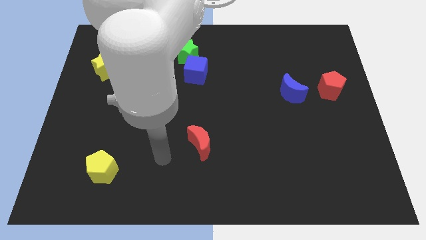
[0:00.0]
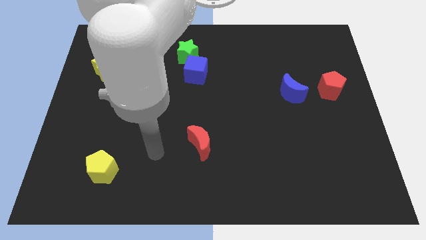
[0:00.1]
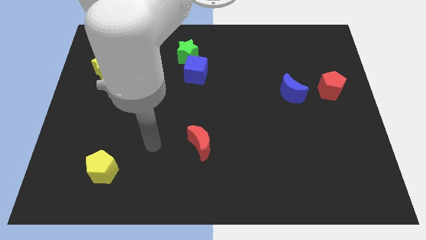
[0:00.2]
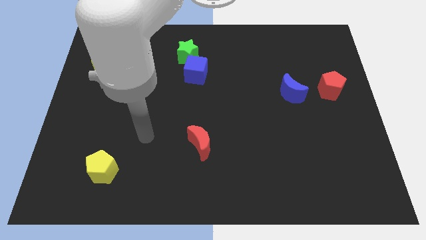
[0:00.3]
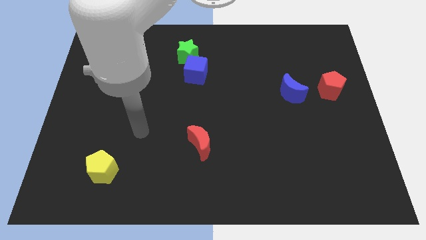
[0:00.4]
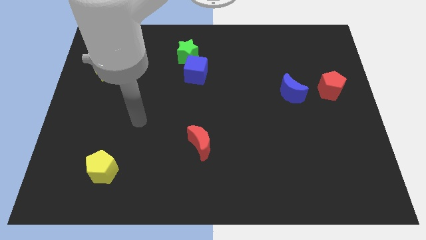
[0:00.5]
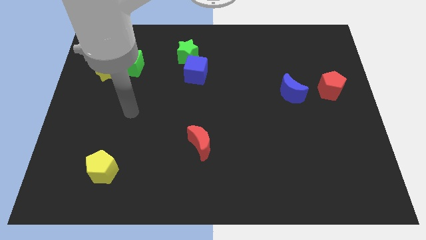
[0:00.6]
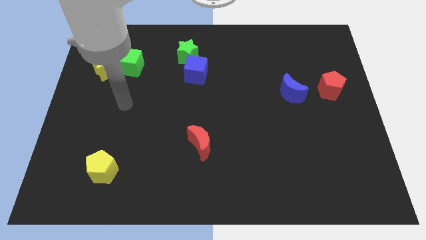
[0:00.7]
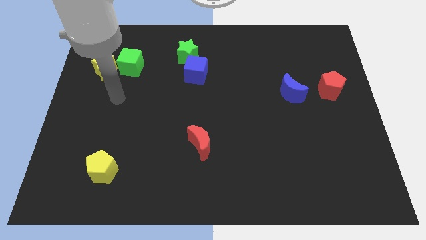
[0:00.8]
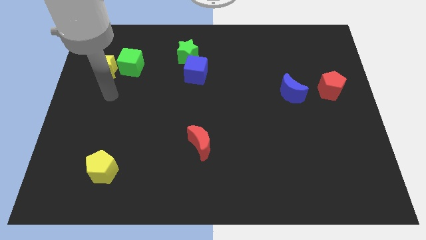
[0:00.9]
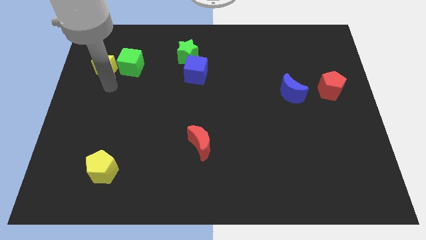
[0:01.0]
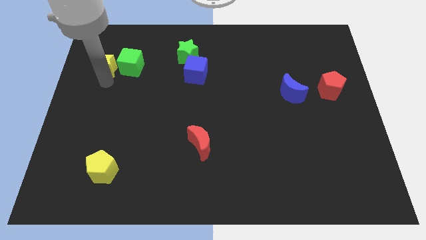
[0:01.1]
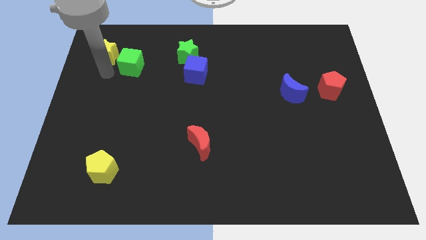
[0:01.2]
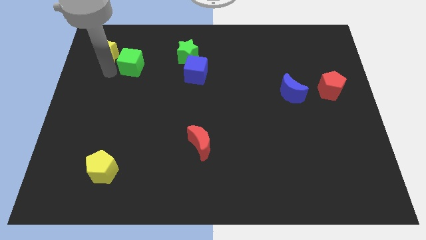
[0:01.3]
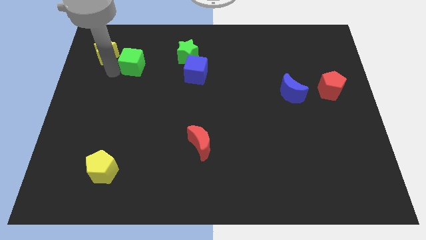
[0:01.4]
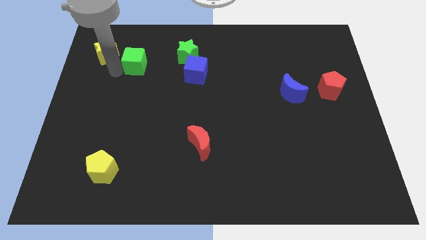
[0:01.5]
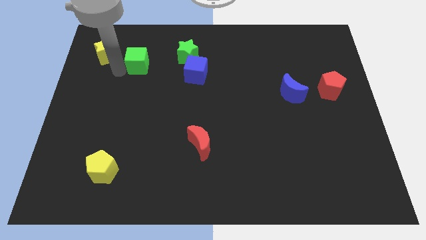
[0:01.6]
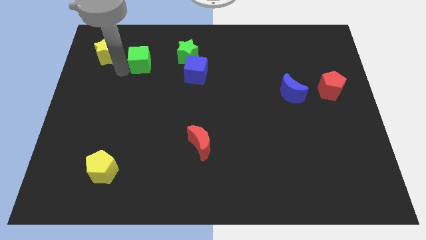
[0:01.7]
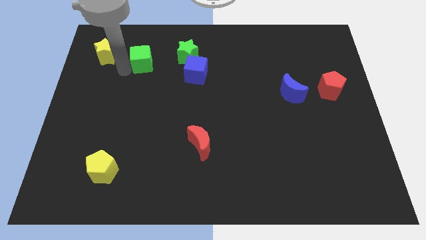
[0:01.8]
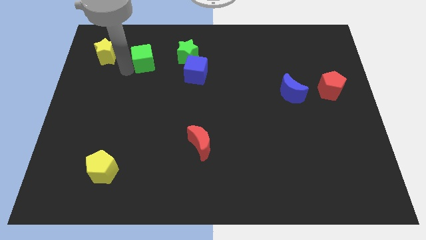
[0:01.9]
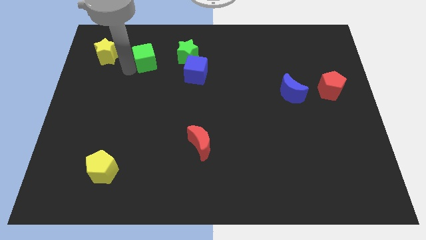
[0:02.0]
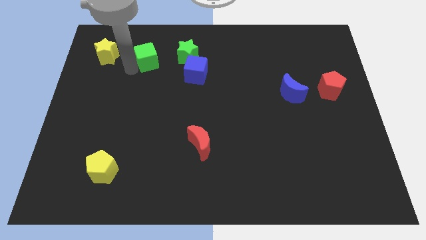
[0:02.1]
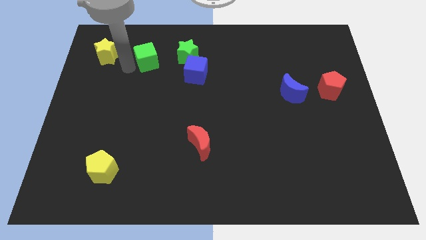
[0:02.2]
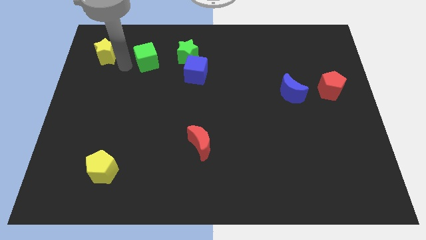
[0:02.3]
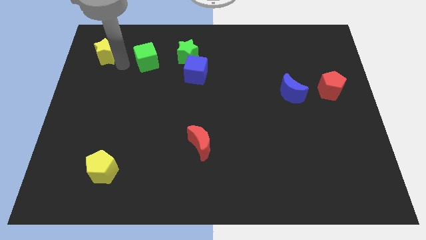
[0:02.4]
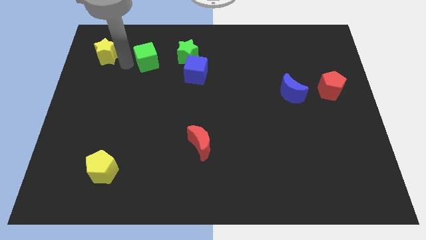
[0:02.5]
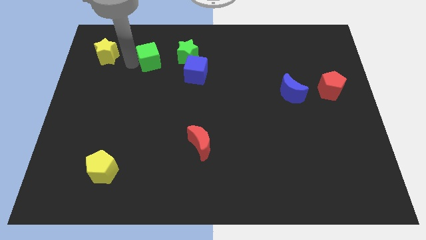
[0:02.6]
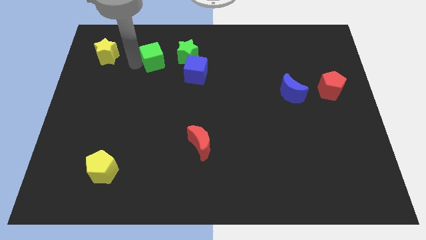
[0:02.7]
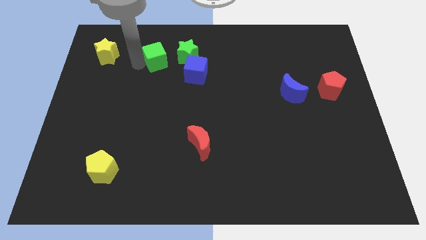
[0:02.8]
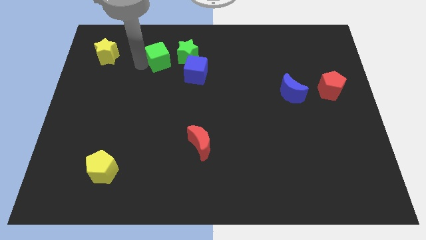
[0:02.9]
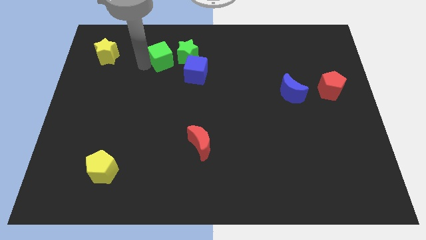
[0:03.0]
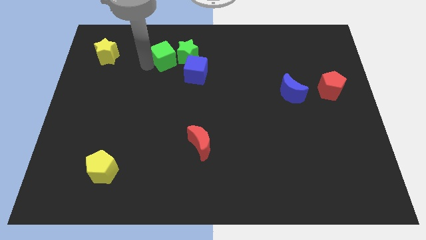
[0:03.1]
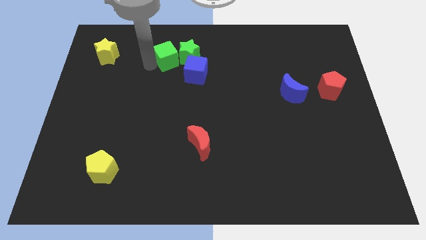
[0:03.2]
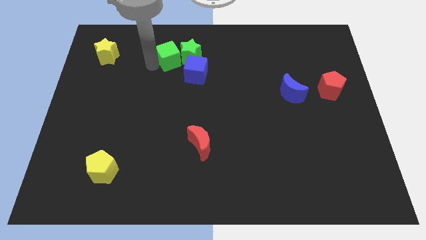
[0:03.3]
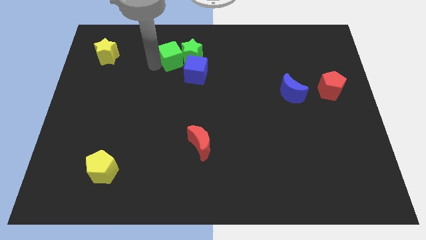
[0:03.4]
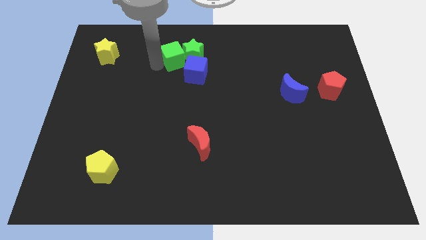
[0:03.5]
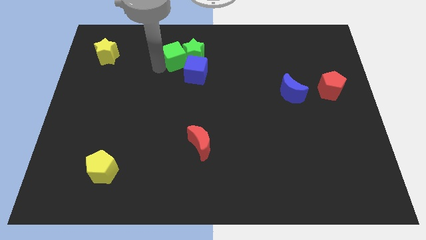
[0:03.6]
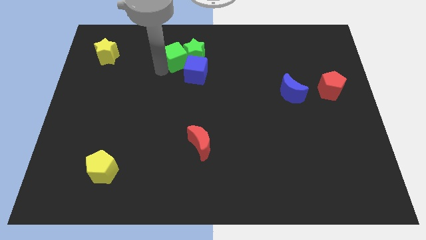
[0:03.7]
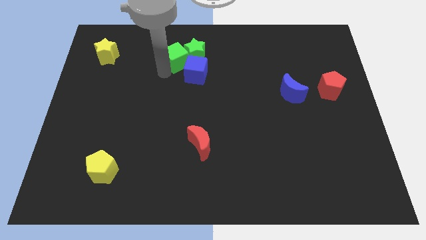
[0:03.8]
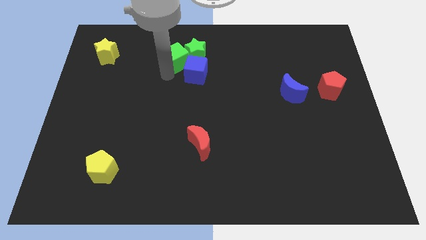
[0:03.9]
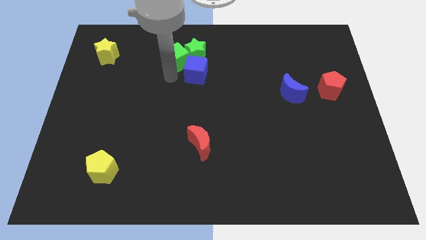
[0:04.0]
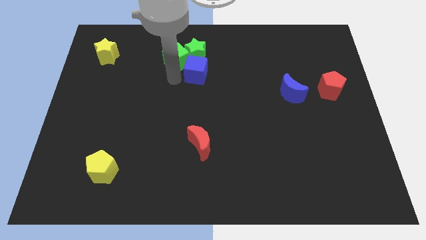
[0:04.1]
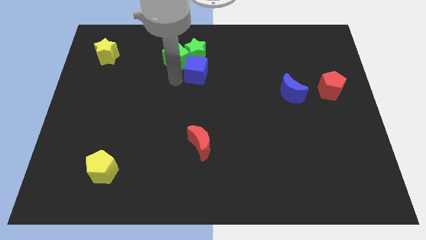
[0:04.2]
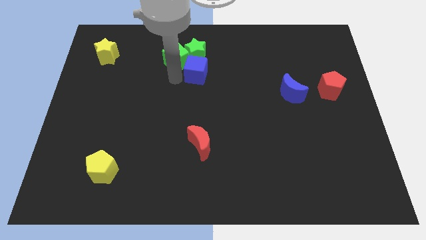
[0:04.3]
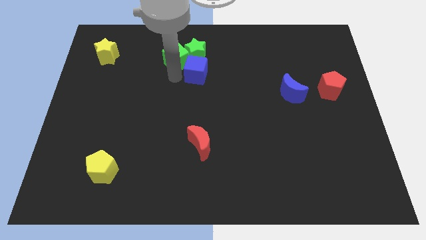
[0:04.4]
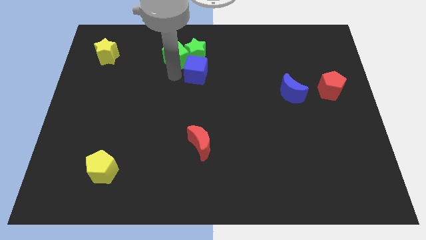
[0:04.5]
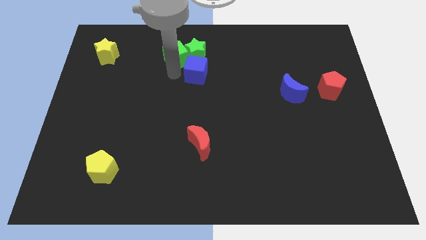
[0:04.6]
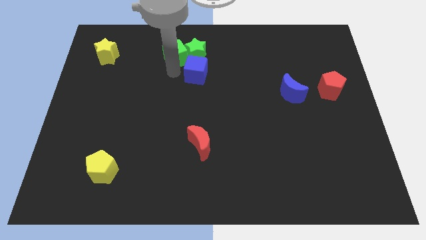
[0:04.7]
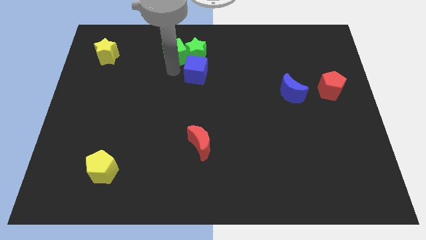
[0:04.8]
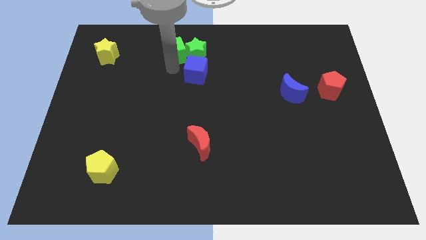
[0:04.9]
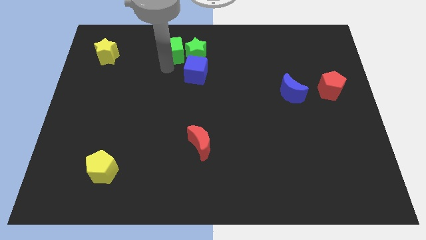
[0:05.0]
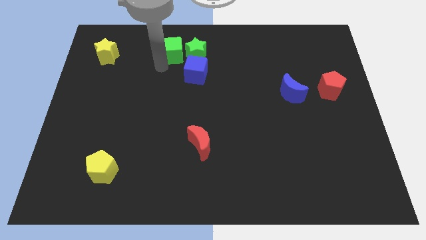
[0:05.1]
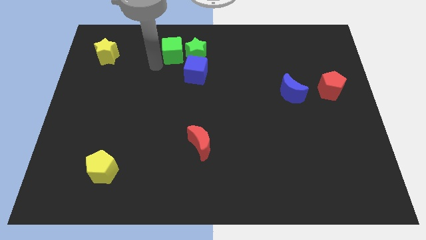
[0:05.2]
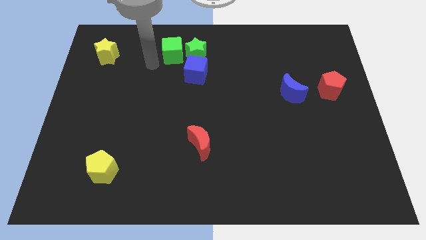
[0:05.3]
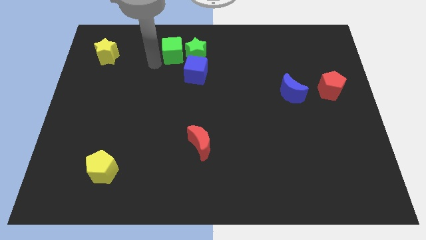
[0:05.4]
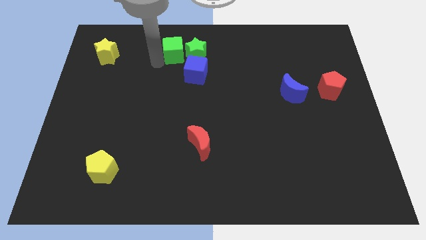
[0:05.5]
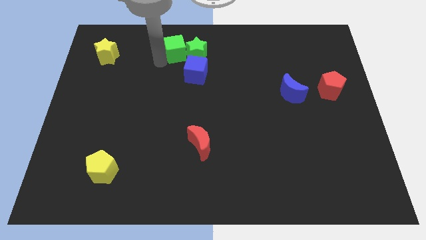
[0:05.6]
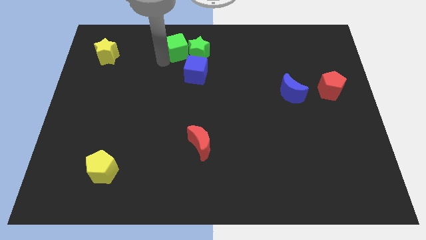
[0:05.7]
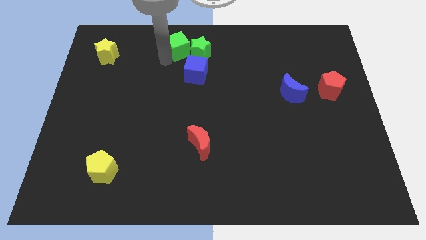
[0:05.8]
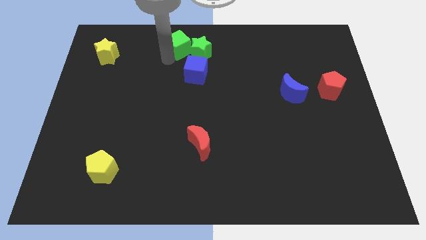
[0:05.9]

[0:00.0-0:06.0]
slide the green cube to the top

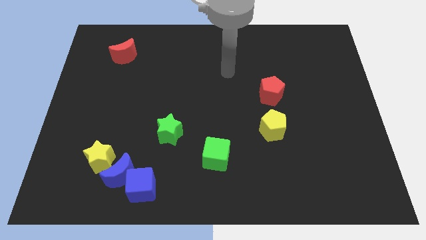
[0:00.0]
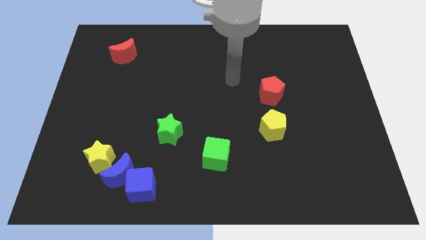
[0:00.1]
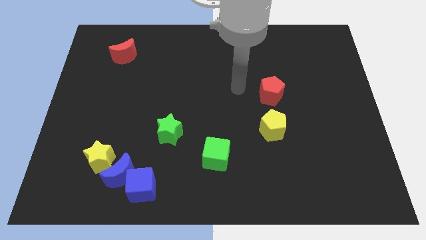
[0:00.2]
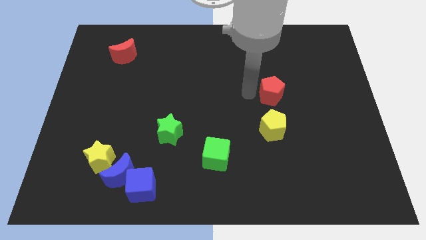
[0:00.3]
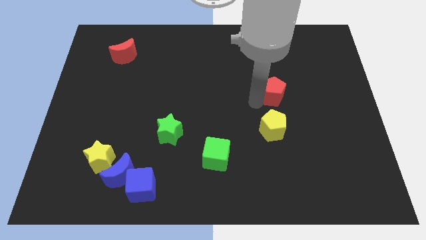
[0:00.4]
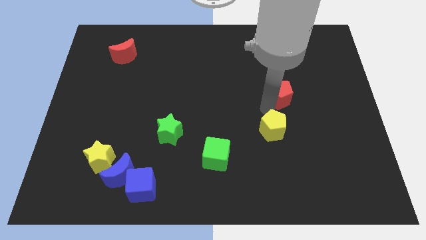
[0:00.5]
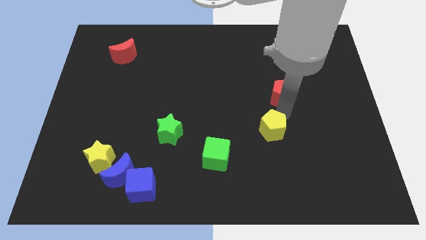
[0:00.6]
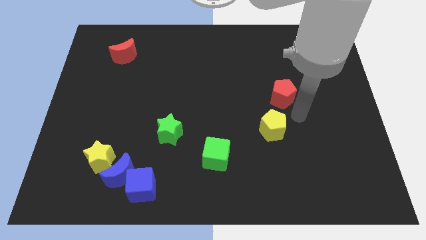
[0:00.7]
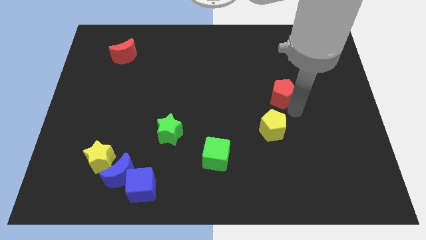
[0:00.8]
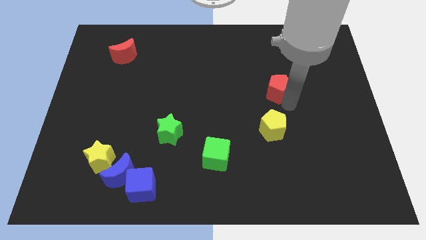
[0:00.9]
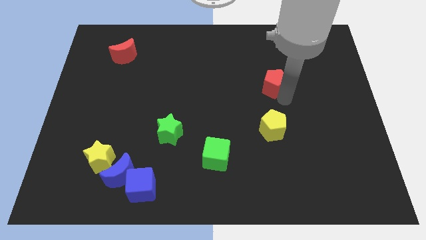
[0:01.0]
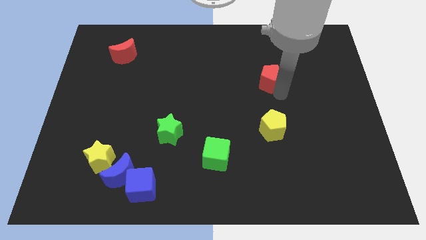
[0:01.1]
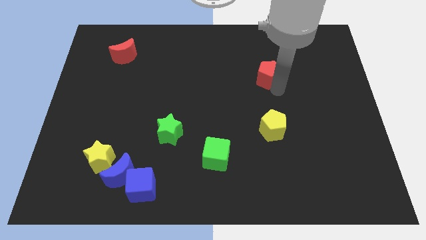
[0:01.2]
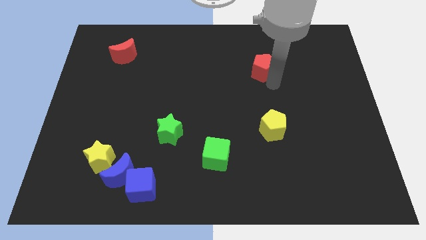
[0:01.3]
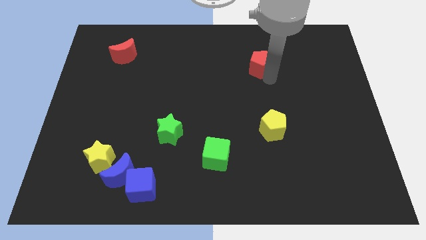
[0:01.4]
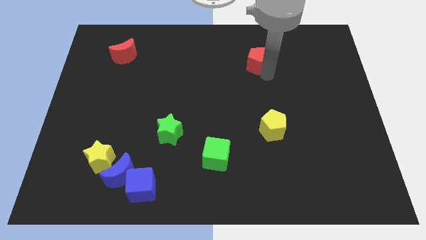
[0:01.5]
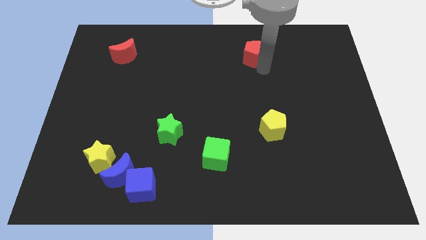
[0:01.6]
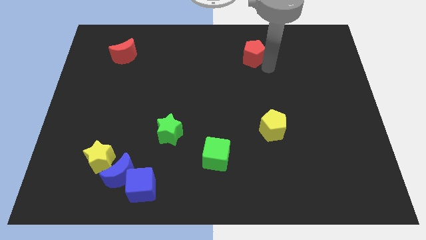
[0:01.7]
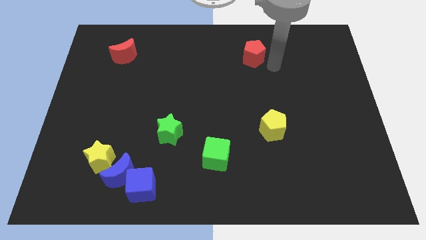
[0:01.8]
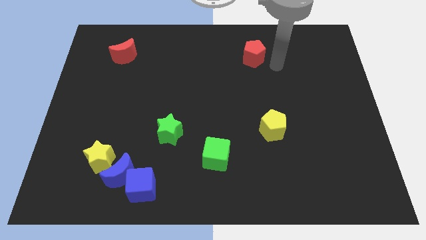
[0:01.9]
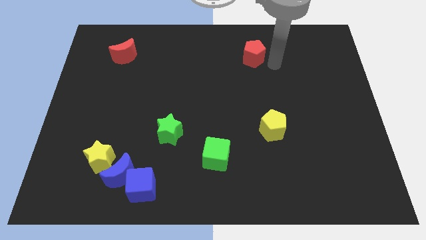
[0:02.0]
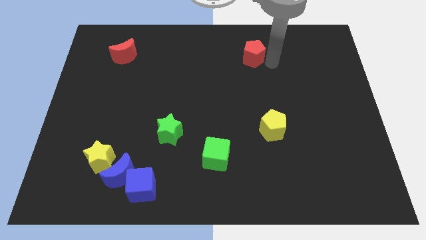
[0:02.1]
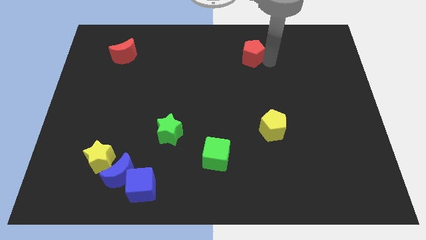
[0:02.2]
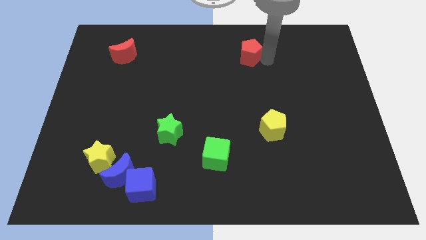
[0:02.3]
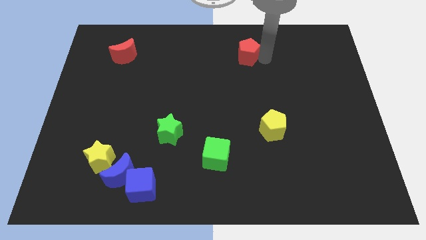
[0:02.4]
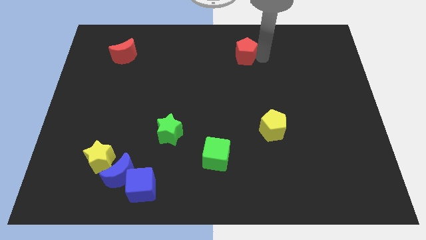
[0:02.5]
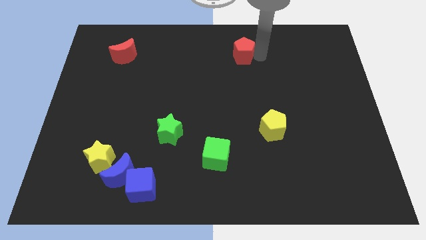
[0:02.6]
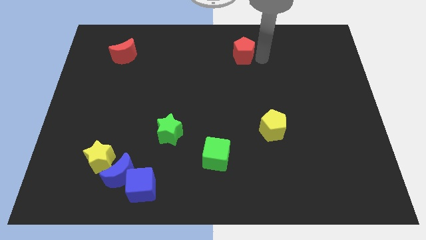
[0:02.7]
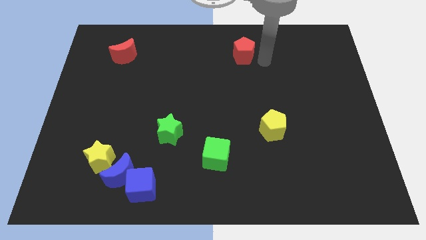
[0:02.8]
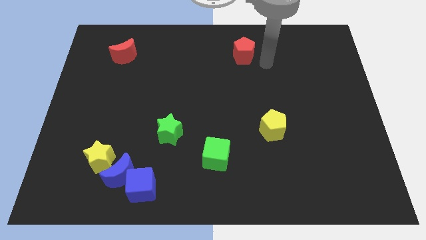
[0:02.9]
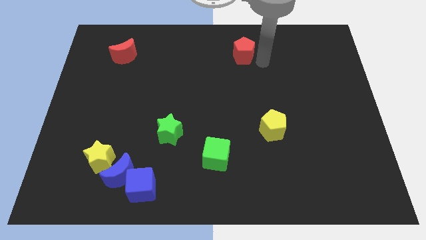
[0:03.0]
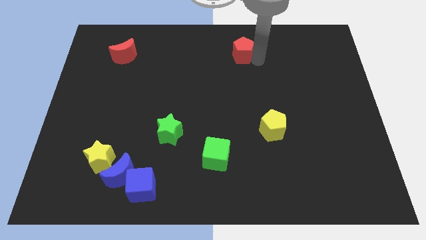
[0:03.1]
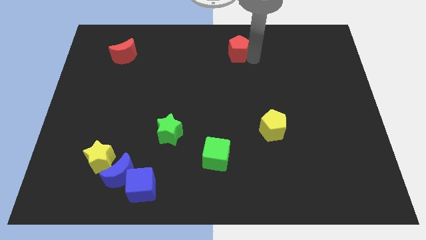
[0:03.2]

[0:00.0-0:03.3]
push the red pentagon to the towards your base
